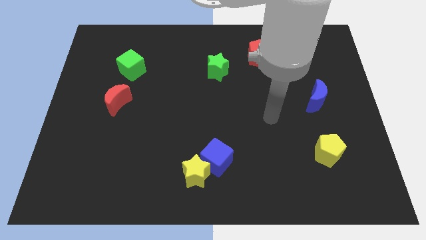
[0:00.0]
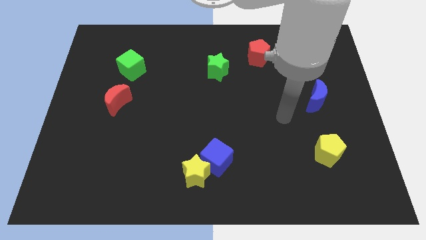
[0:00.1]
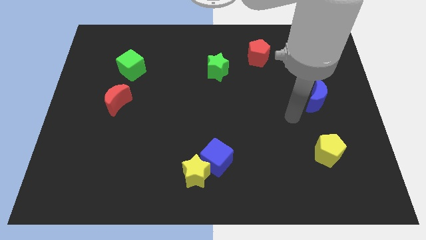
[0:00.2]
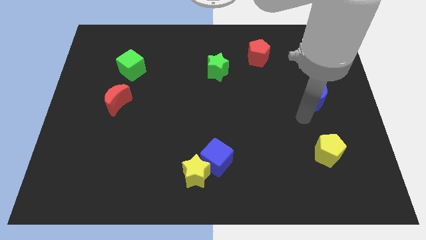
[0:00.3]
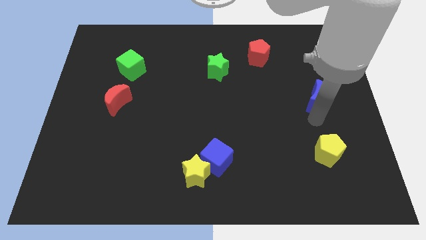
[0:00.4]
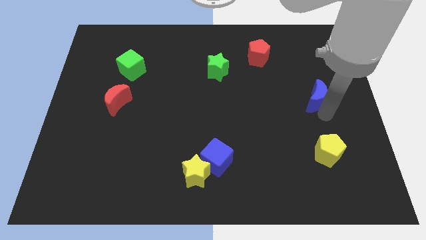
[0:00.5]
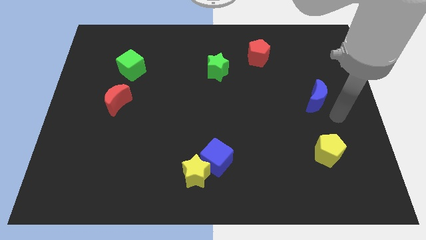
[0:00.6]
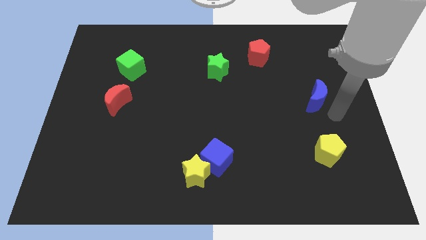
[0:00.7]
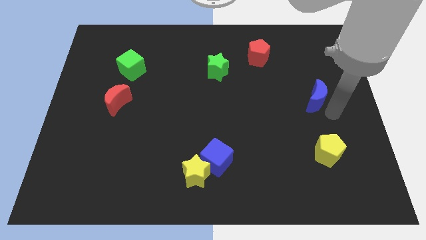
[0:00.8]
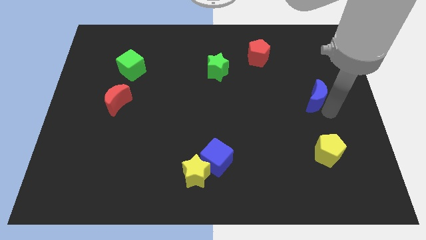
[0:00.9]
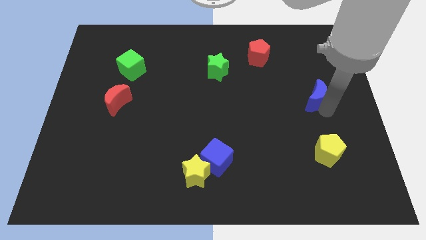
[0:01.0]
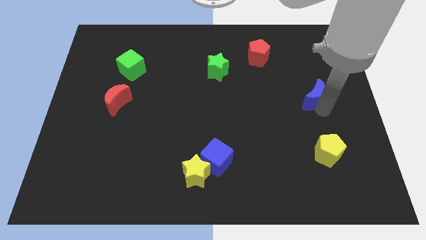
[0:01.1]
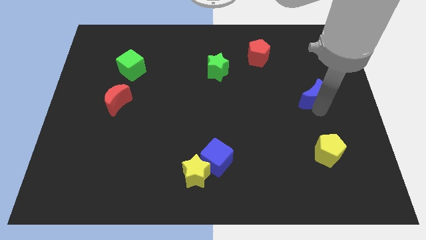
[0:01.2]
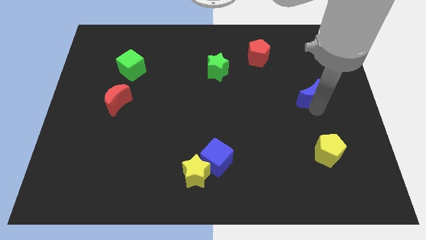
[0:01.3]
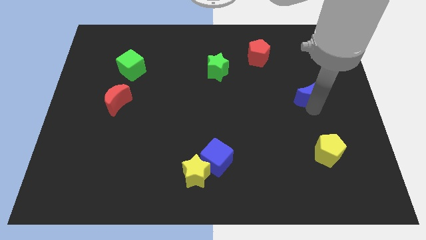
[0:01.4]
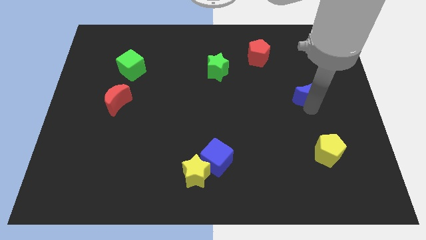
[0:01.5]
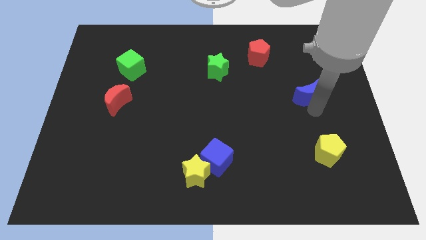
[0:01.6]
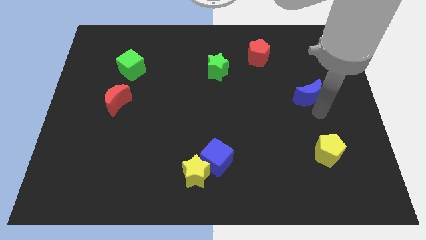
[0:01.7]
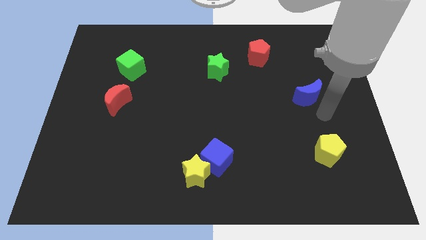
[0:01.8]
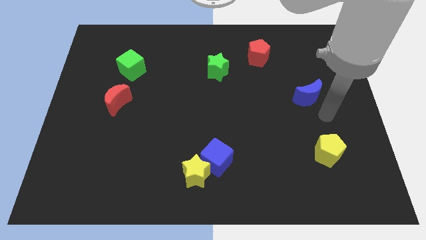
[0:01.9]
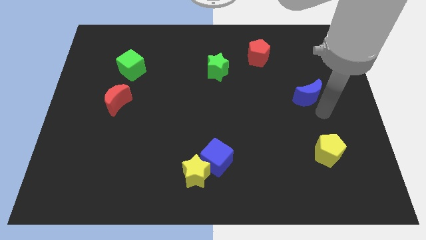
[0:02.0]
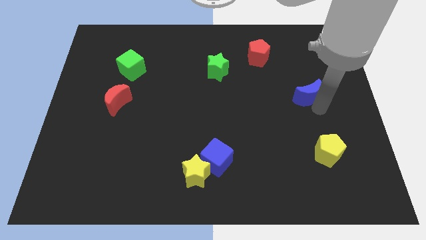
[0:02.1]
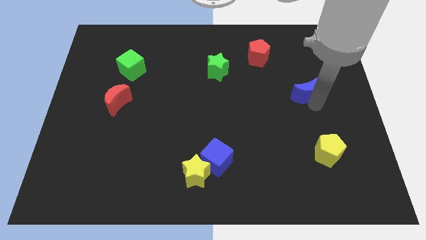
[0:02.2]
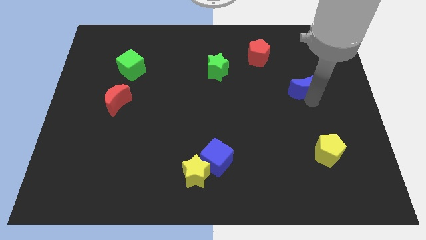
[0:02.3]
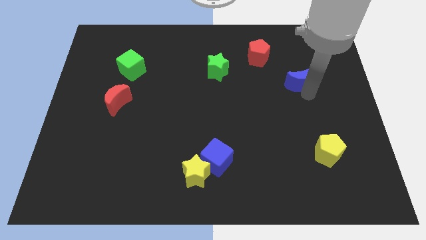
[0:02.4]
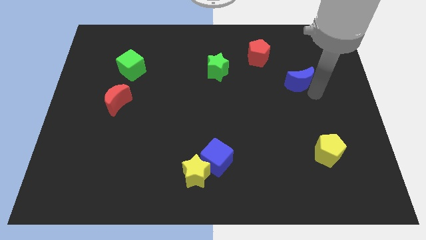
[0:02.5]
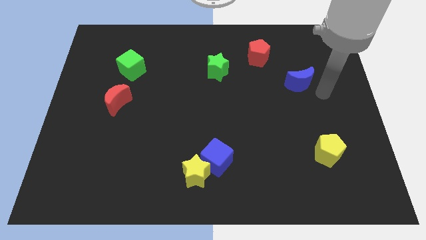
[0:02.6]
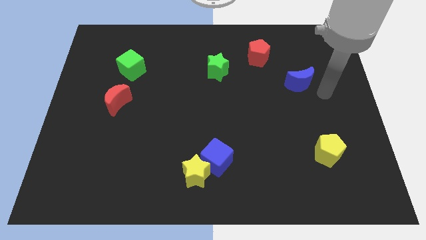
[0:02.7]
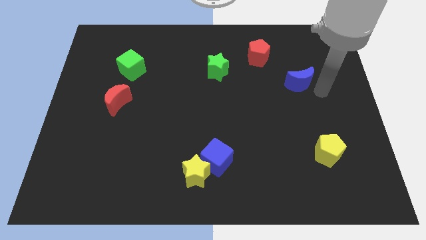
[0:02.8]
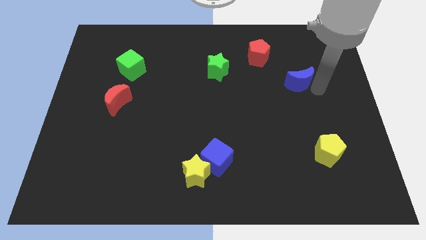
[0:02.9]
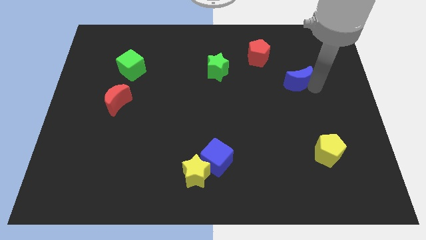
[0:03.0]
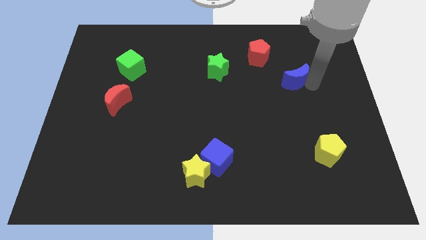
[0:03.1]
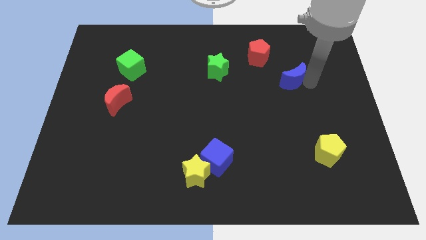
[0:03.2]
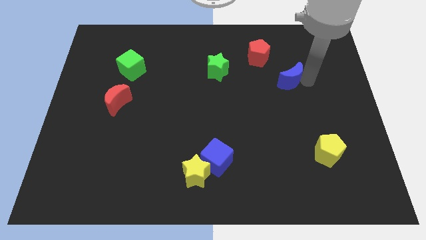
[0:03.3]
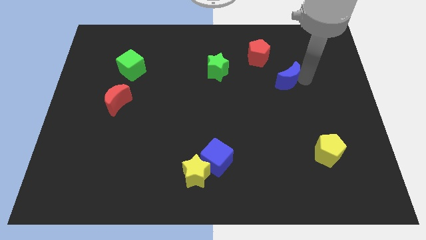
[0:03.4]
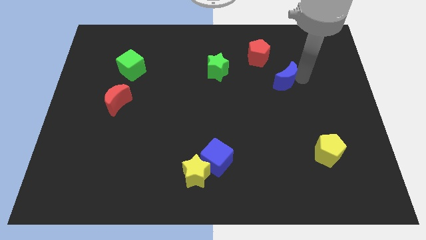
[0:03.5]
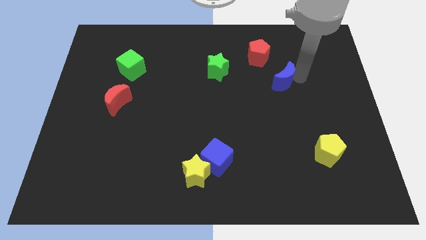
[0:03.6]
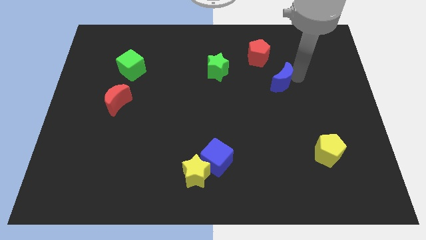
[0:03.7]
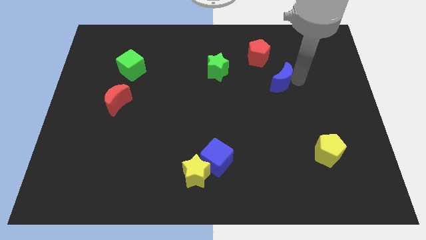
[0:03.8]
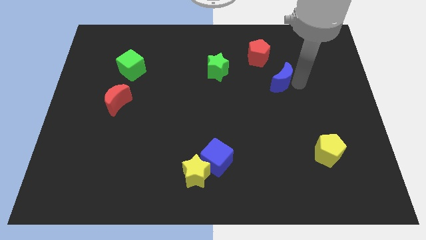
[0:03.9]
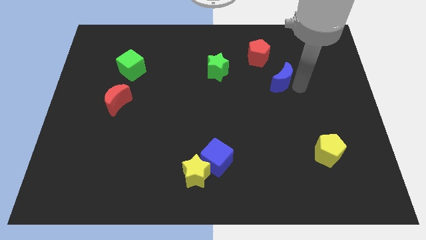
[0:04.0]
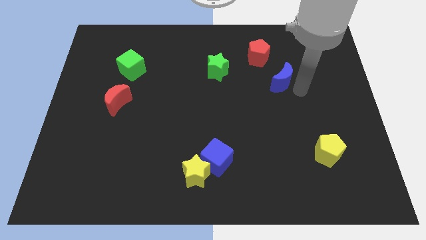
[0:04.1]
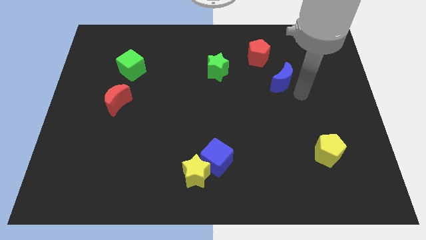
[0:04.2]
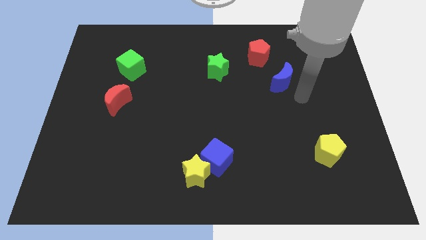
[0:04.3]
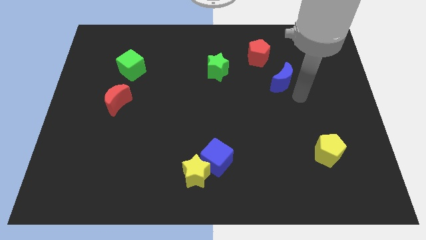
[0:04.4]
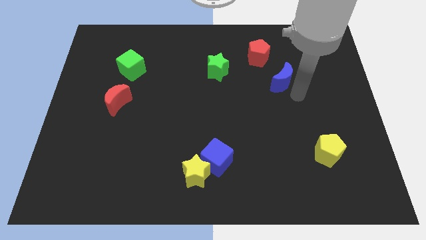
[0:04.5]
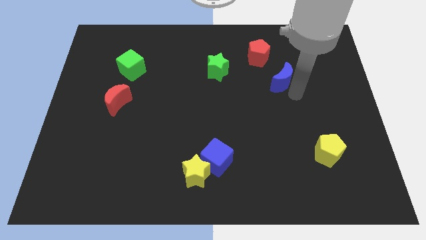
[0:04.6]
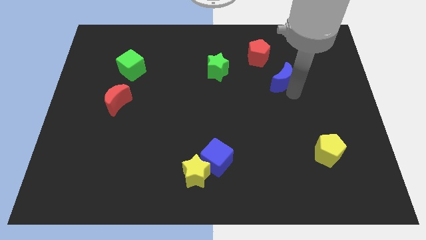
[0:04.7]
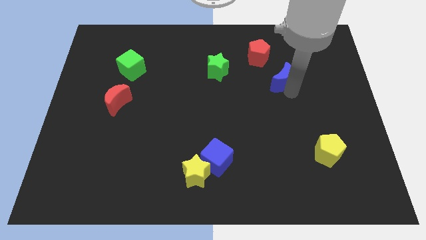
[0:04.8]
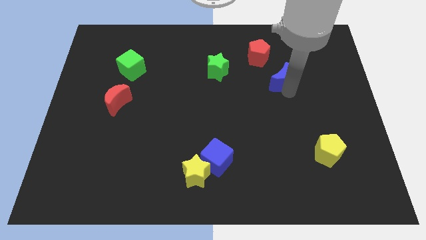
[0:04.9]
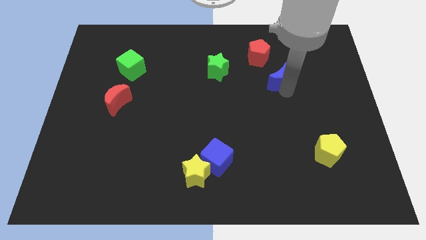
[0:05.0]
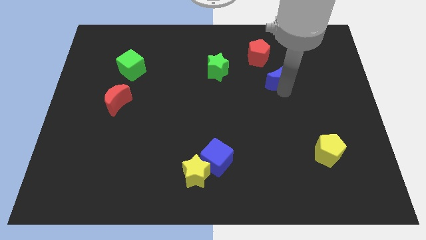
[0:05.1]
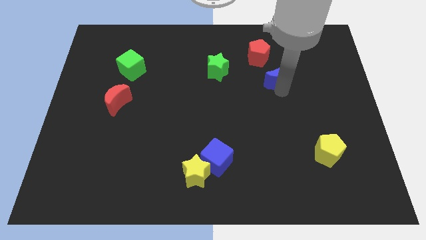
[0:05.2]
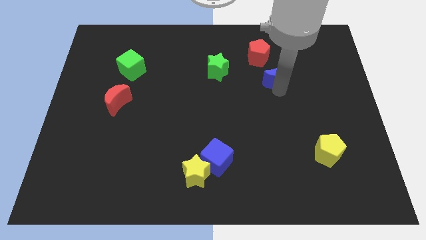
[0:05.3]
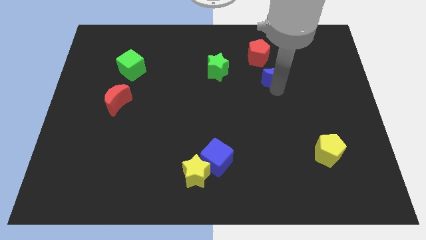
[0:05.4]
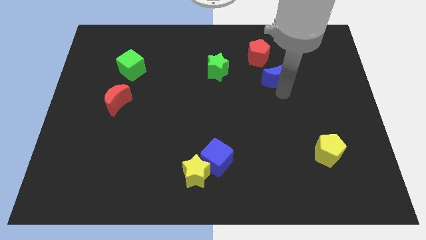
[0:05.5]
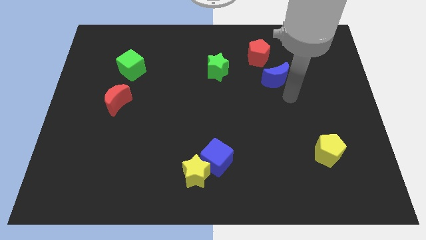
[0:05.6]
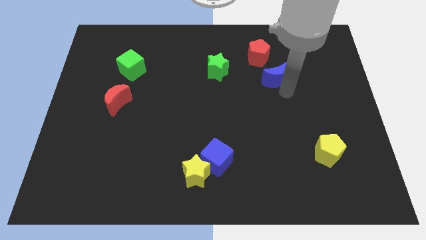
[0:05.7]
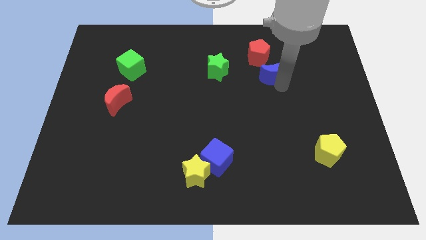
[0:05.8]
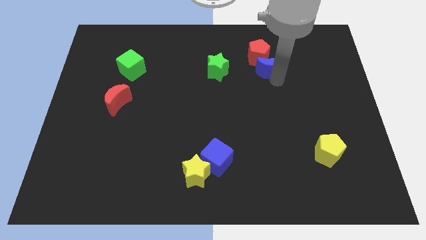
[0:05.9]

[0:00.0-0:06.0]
put the blue moon towards the red pentagon

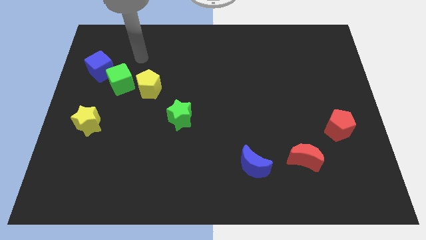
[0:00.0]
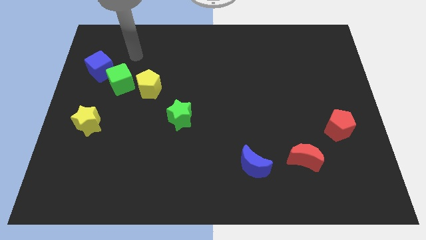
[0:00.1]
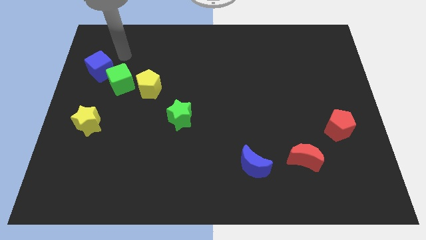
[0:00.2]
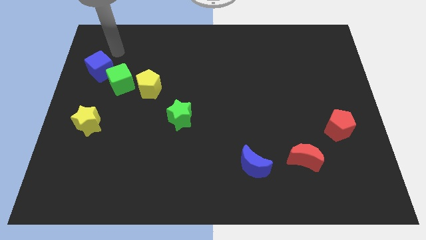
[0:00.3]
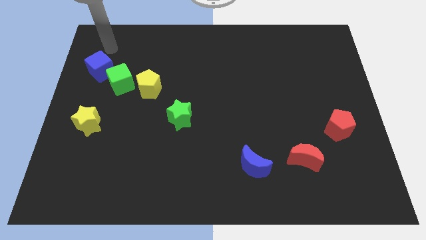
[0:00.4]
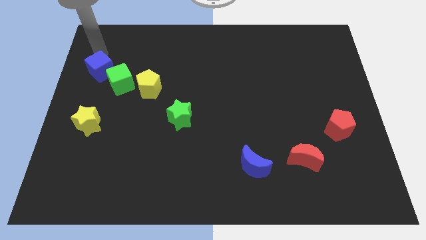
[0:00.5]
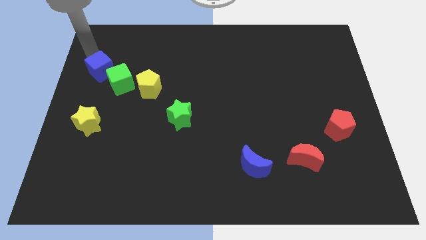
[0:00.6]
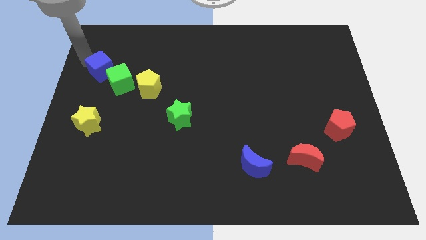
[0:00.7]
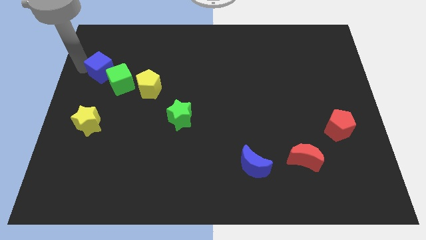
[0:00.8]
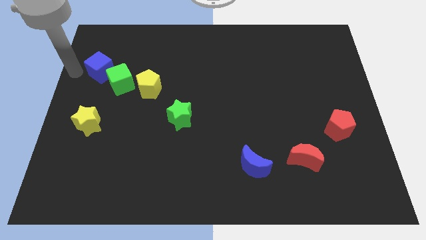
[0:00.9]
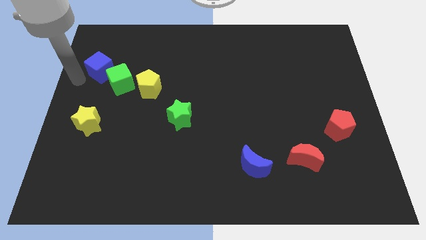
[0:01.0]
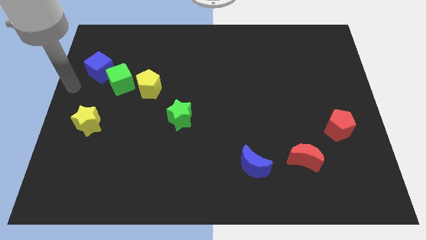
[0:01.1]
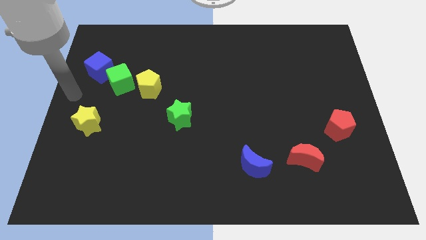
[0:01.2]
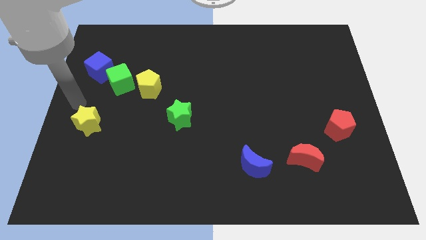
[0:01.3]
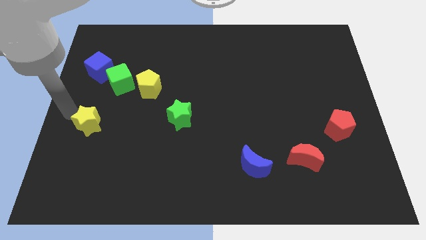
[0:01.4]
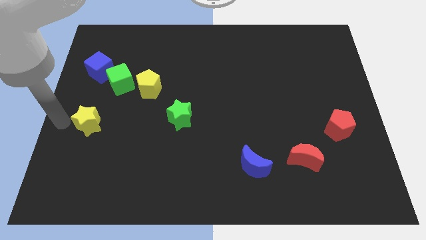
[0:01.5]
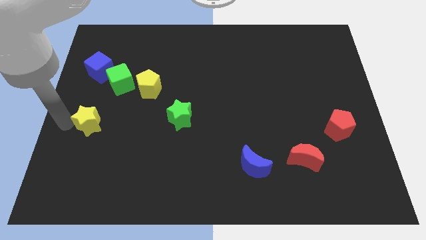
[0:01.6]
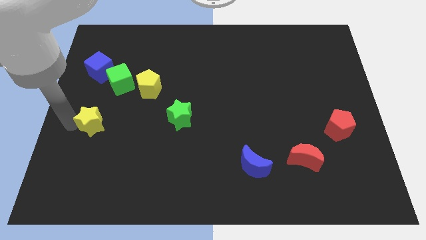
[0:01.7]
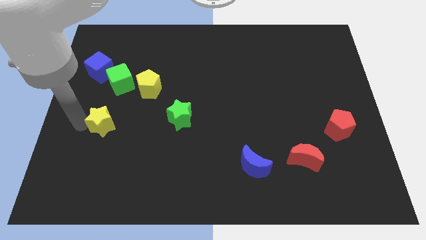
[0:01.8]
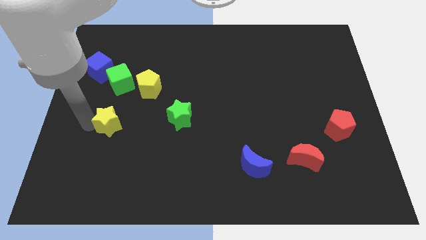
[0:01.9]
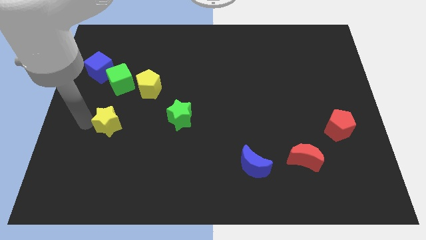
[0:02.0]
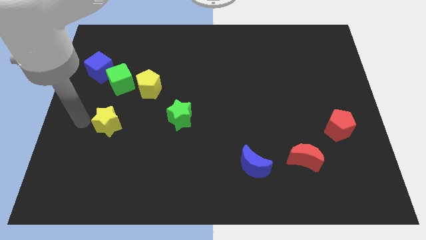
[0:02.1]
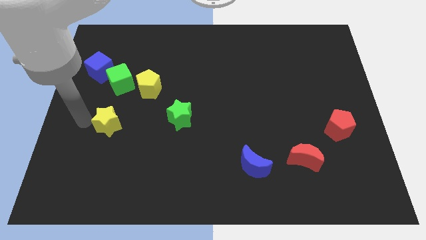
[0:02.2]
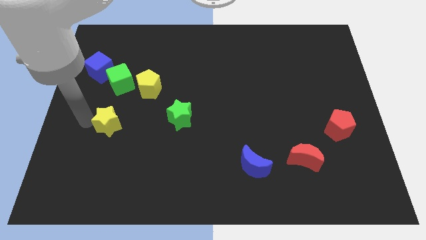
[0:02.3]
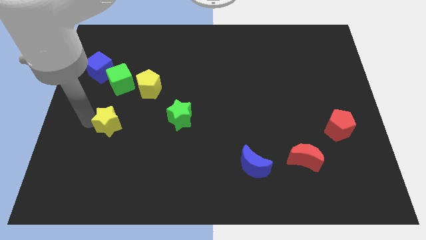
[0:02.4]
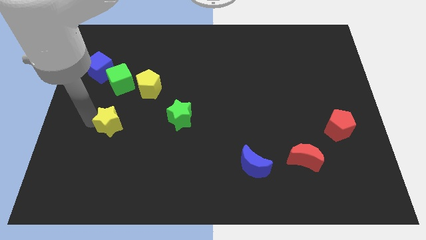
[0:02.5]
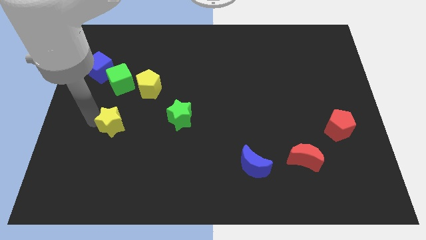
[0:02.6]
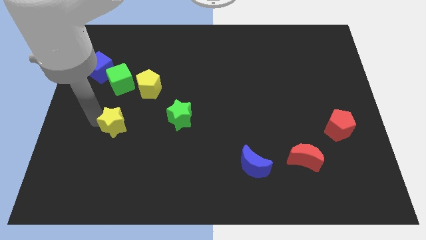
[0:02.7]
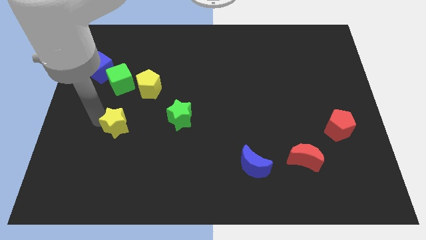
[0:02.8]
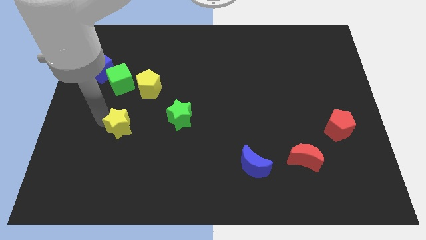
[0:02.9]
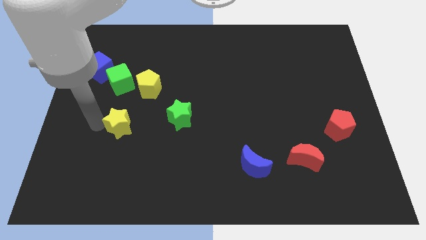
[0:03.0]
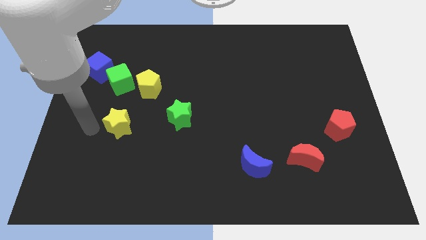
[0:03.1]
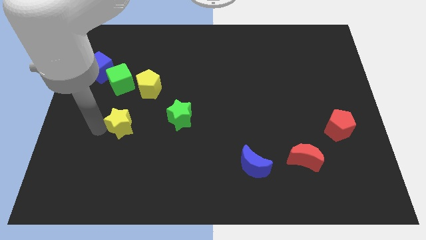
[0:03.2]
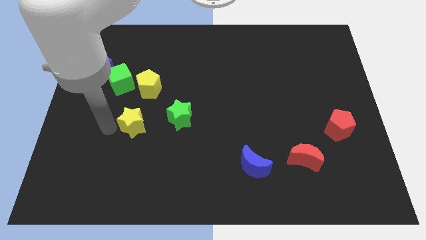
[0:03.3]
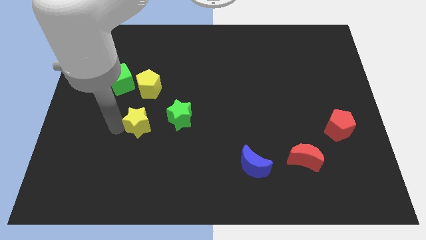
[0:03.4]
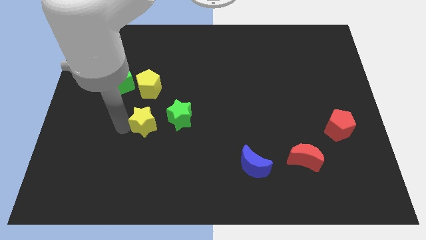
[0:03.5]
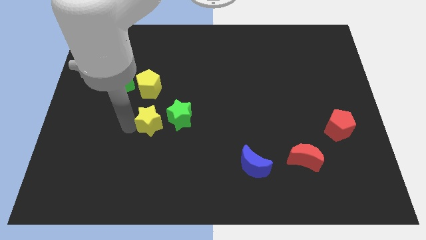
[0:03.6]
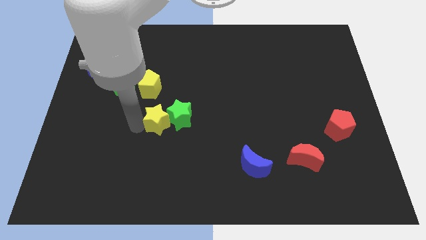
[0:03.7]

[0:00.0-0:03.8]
slide the yellow star to the green star
